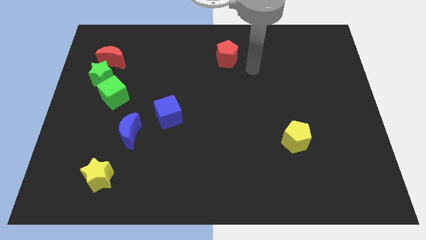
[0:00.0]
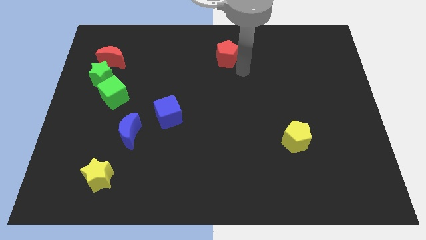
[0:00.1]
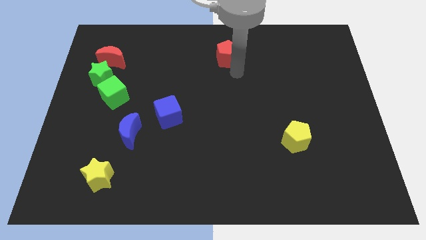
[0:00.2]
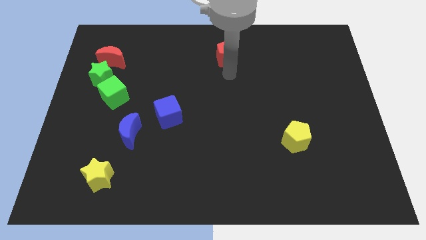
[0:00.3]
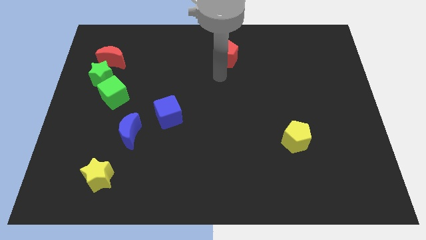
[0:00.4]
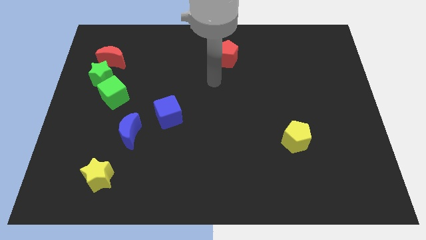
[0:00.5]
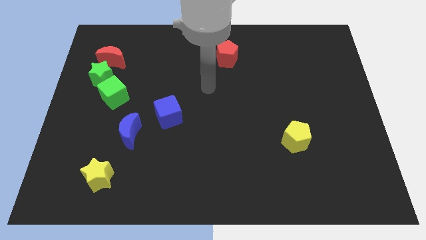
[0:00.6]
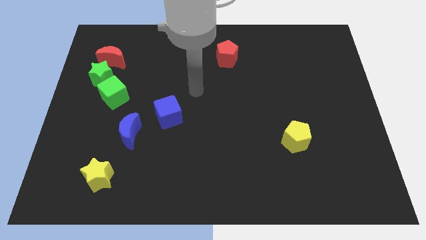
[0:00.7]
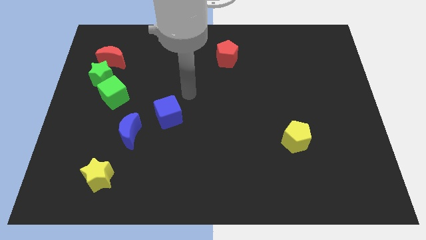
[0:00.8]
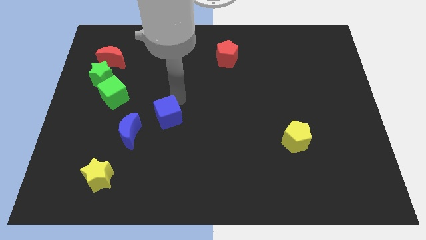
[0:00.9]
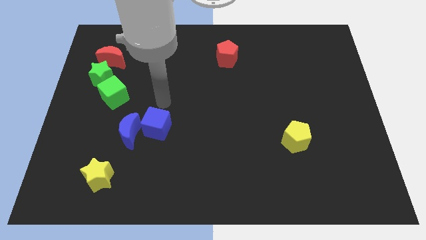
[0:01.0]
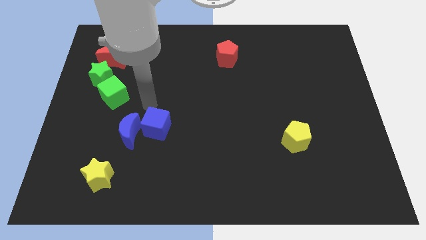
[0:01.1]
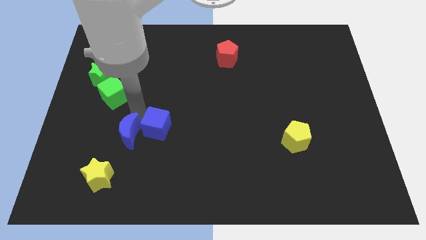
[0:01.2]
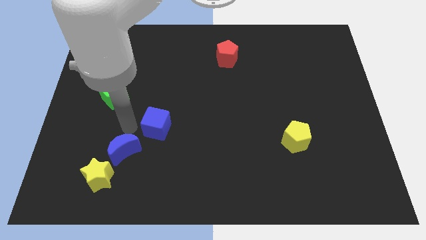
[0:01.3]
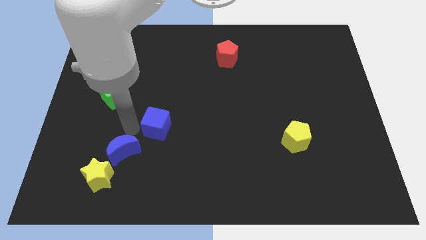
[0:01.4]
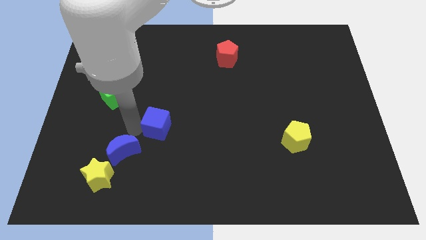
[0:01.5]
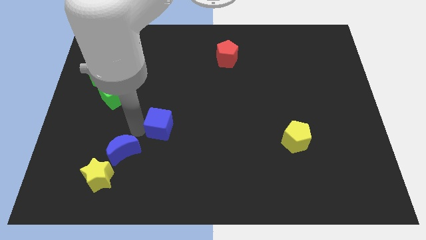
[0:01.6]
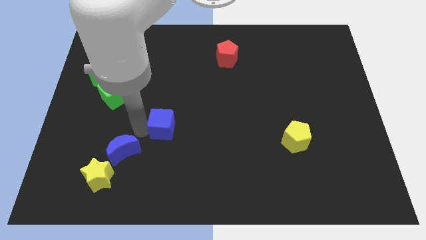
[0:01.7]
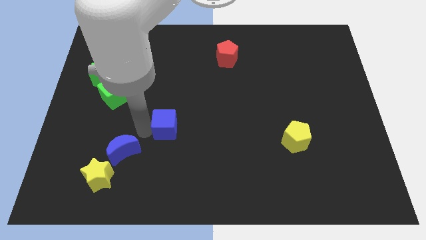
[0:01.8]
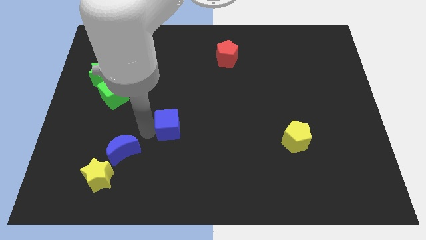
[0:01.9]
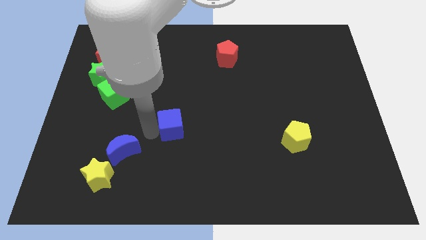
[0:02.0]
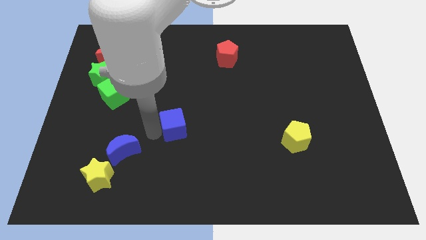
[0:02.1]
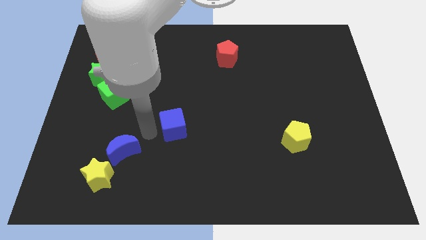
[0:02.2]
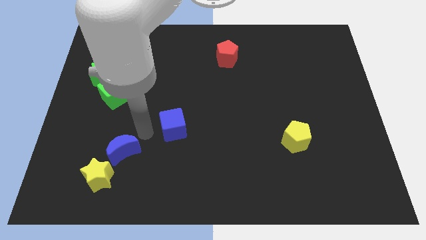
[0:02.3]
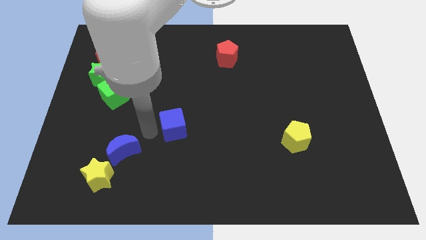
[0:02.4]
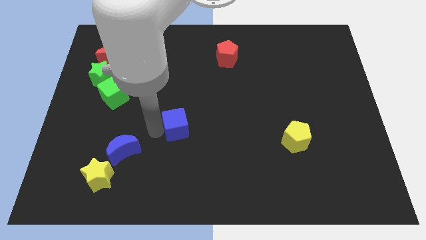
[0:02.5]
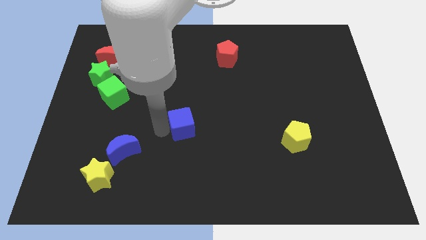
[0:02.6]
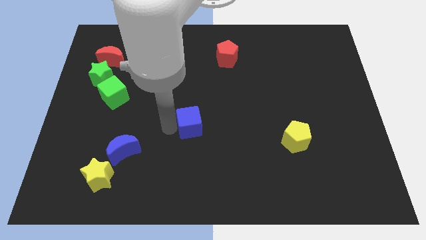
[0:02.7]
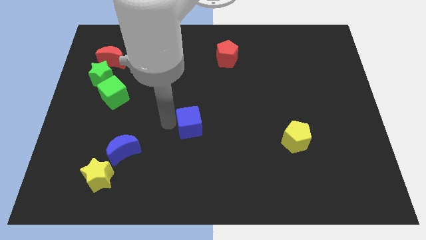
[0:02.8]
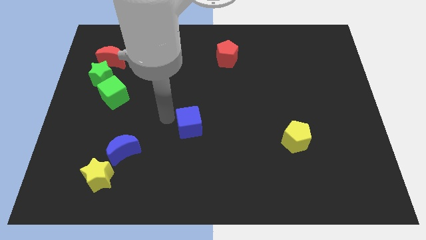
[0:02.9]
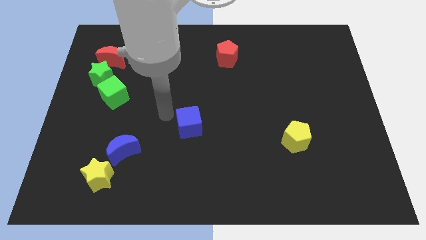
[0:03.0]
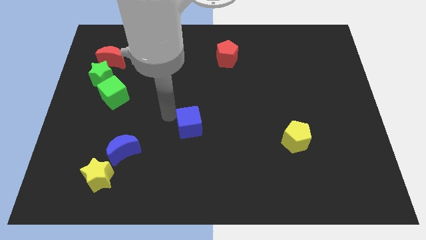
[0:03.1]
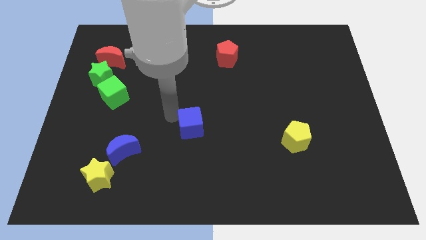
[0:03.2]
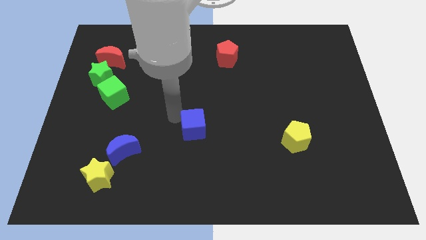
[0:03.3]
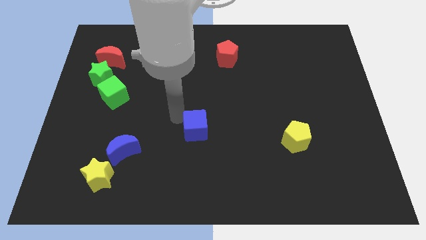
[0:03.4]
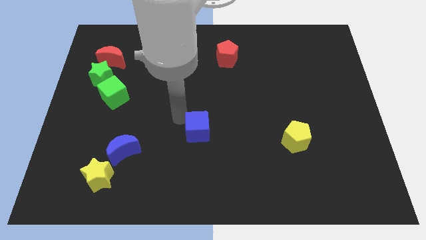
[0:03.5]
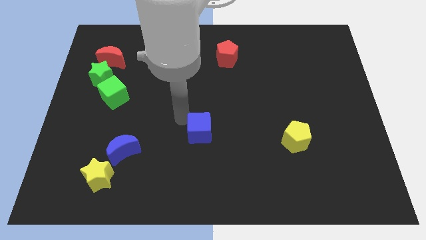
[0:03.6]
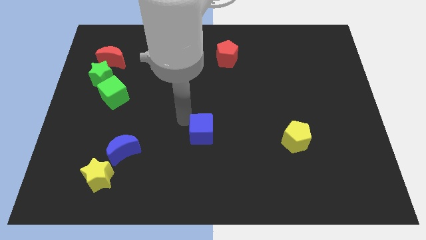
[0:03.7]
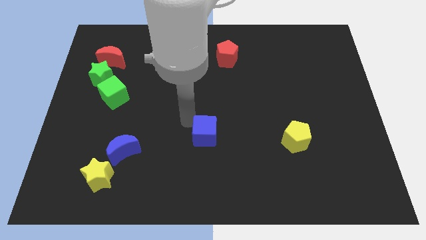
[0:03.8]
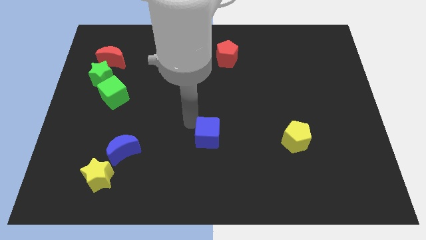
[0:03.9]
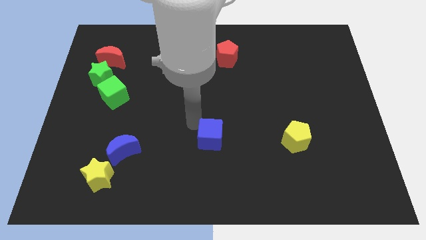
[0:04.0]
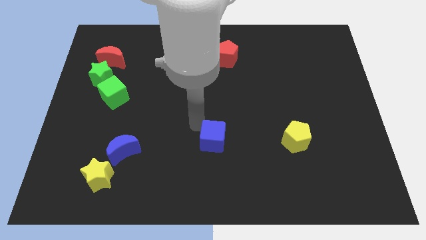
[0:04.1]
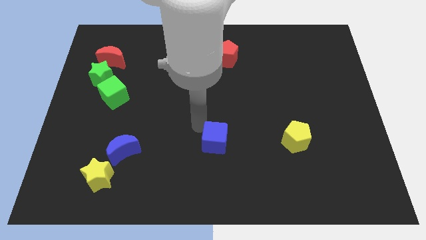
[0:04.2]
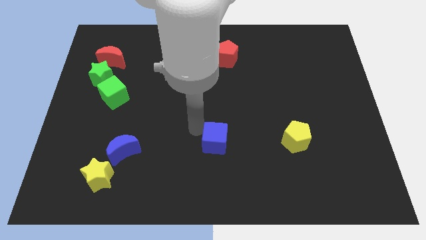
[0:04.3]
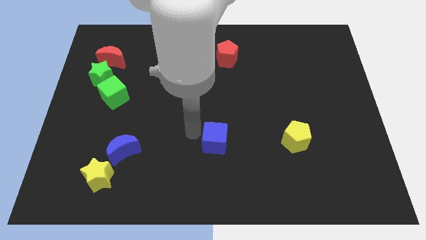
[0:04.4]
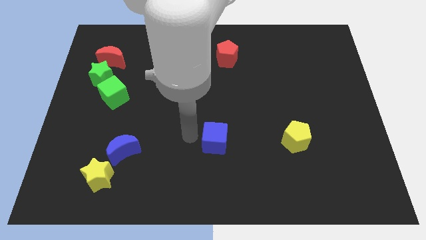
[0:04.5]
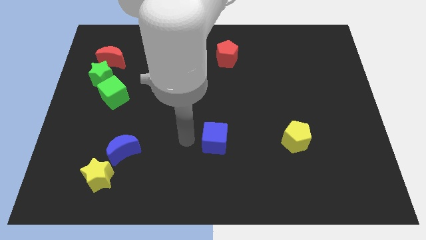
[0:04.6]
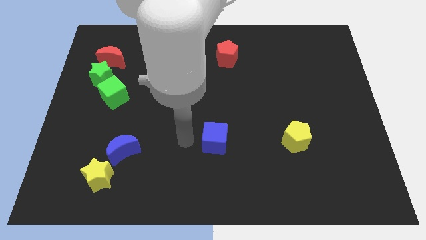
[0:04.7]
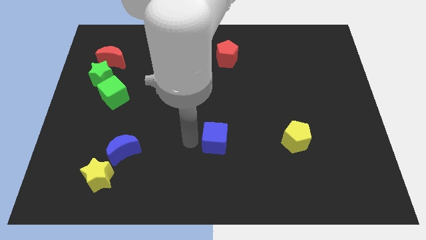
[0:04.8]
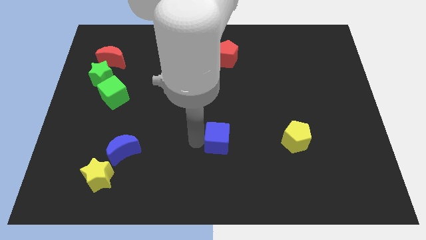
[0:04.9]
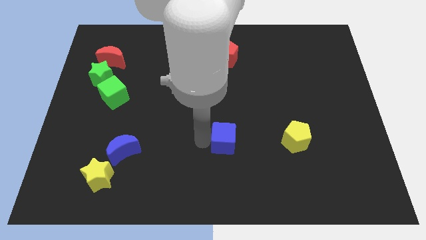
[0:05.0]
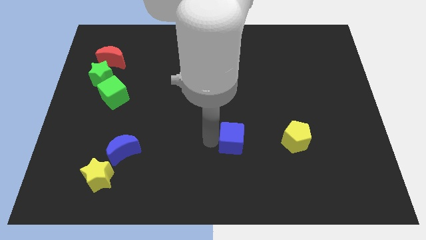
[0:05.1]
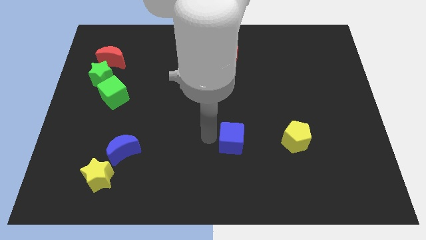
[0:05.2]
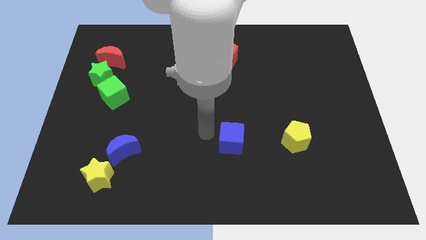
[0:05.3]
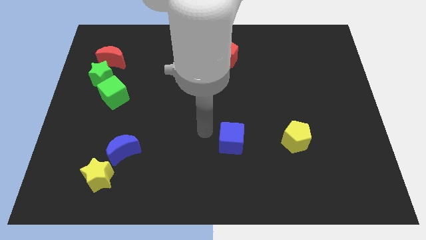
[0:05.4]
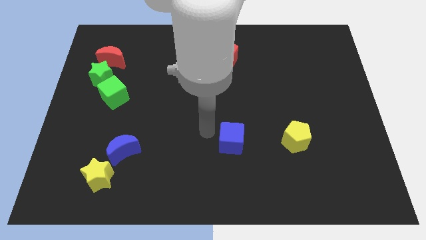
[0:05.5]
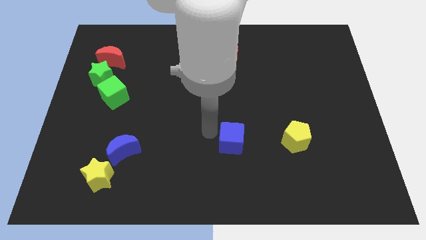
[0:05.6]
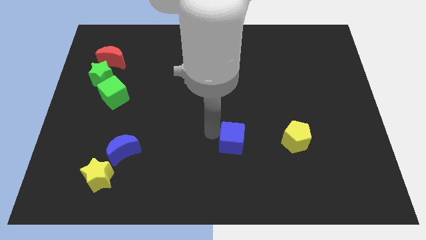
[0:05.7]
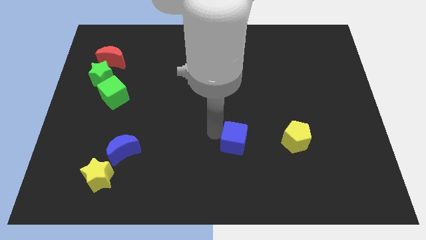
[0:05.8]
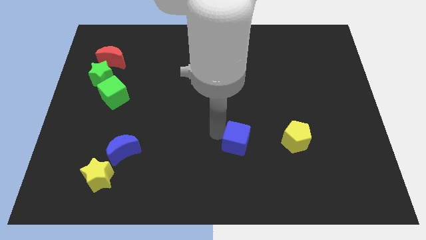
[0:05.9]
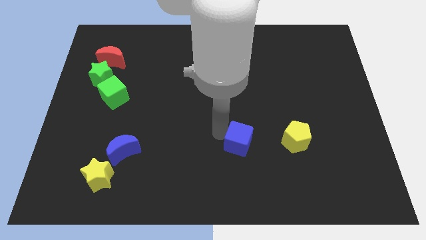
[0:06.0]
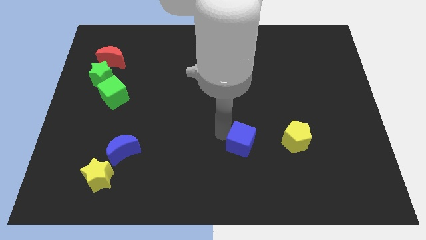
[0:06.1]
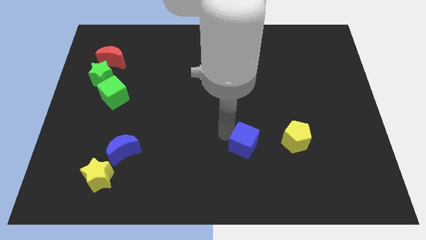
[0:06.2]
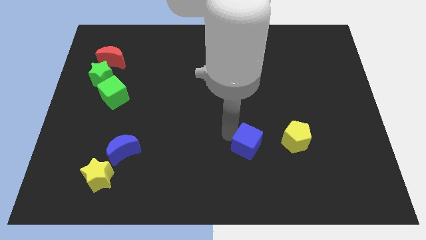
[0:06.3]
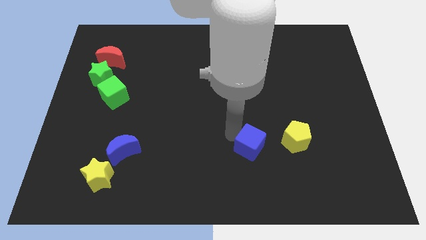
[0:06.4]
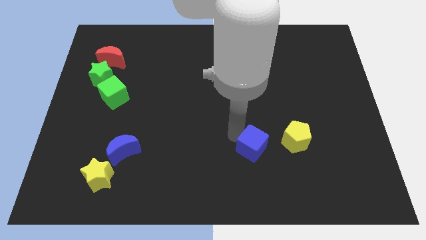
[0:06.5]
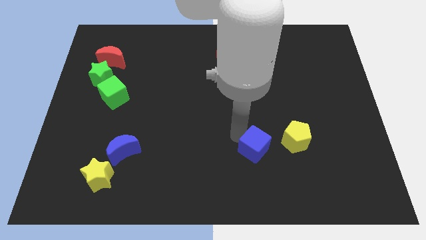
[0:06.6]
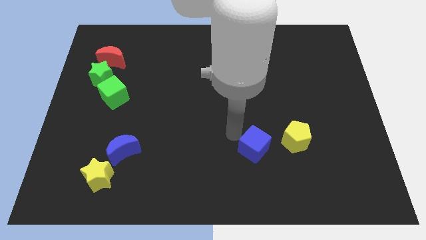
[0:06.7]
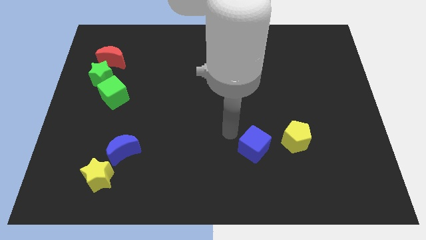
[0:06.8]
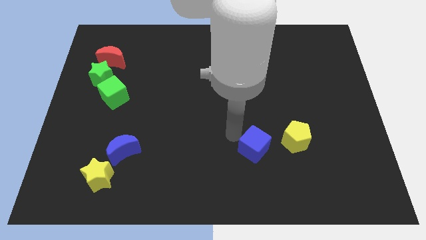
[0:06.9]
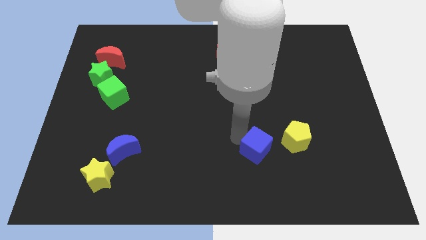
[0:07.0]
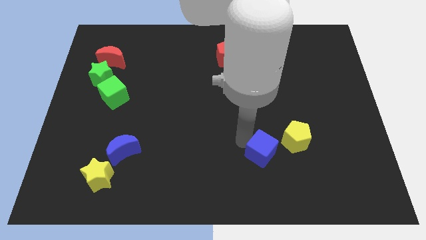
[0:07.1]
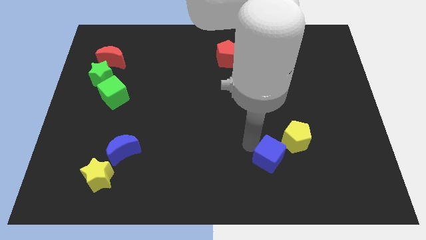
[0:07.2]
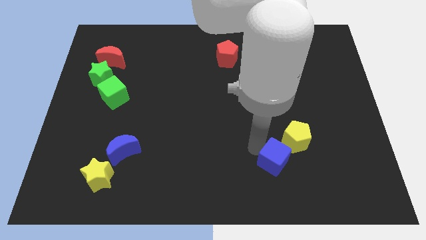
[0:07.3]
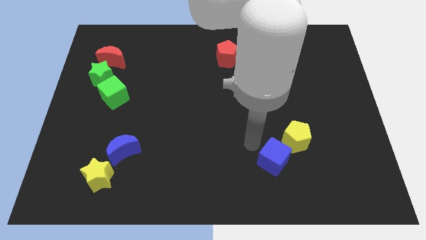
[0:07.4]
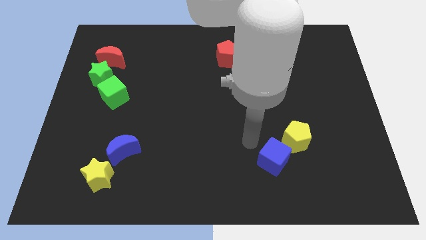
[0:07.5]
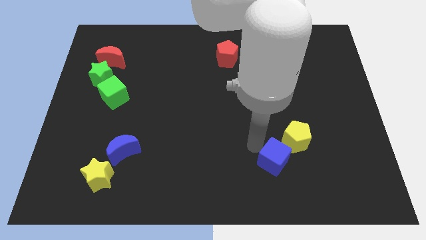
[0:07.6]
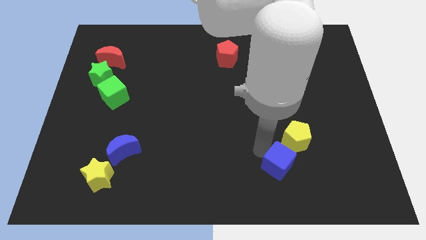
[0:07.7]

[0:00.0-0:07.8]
put the blue cube to the bottom of the yellow pentagon
